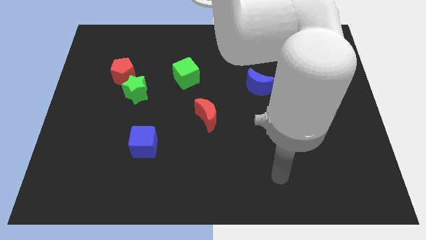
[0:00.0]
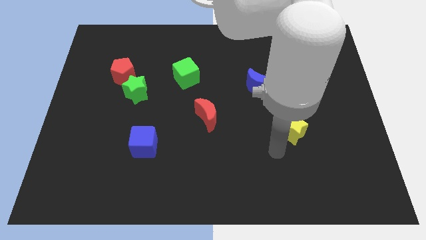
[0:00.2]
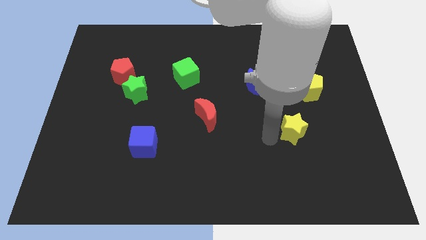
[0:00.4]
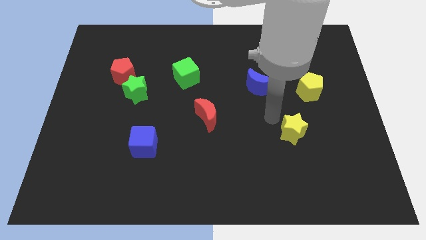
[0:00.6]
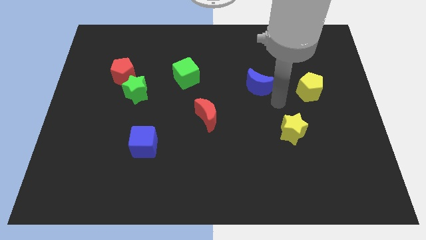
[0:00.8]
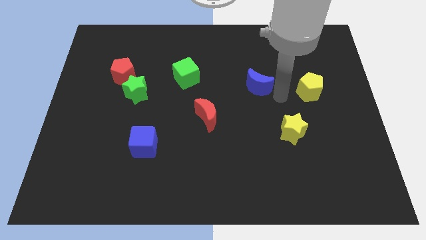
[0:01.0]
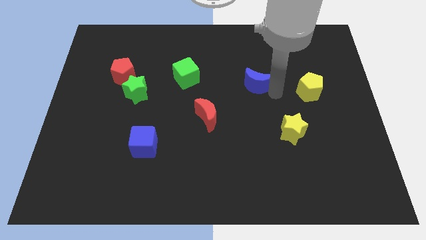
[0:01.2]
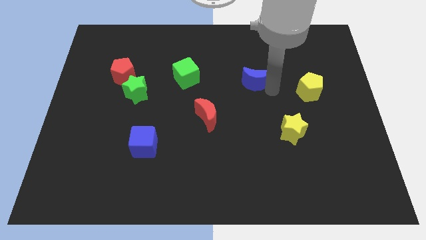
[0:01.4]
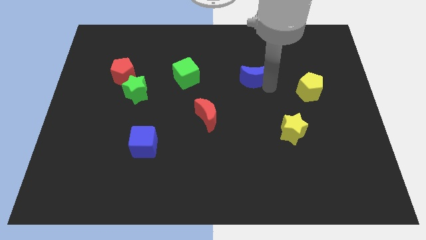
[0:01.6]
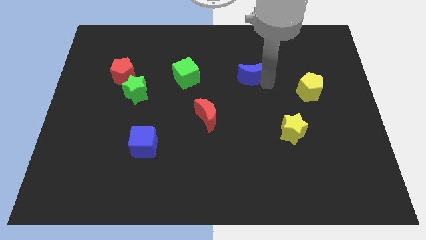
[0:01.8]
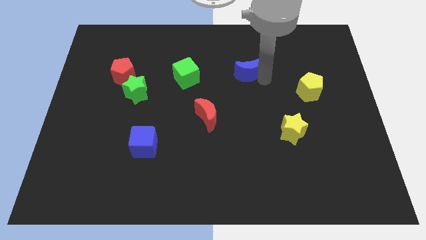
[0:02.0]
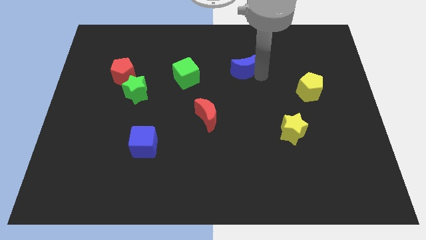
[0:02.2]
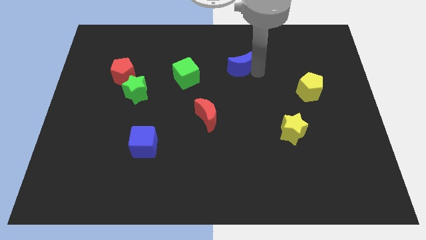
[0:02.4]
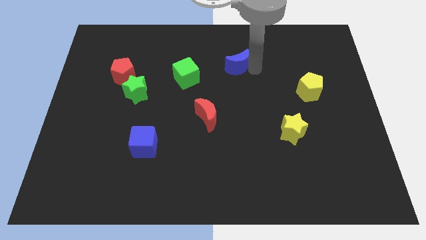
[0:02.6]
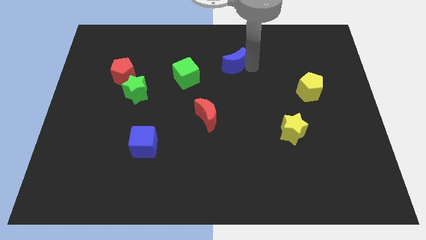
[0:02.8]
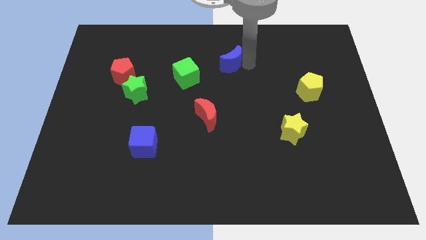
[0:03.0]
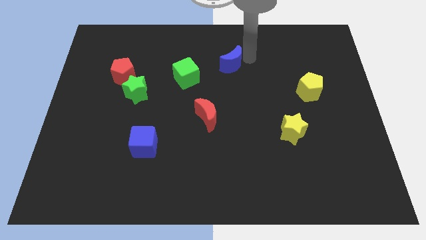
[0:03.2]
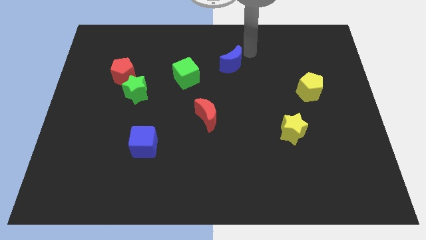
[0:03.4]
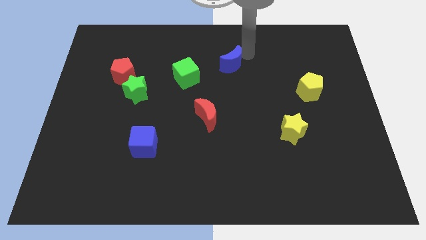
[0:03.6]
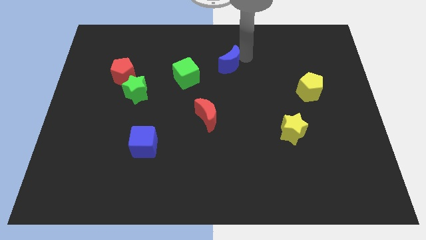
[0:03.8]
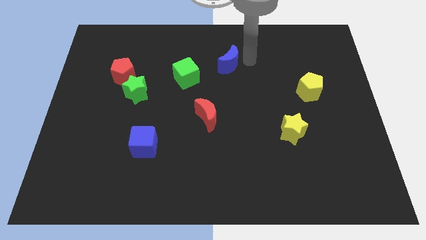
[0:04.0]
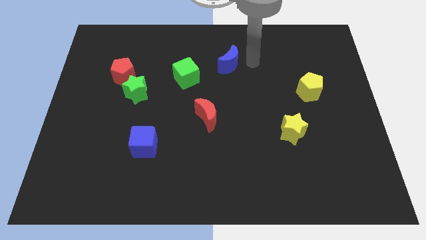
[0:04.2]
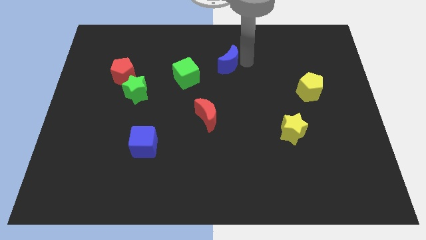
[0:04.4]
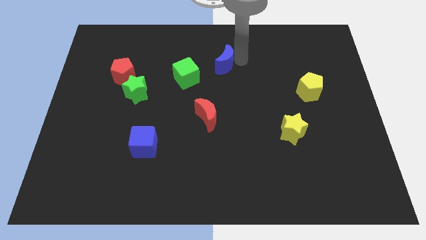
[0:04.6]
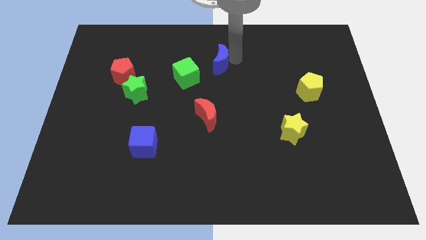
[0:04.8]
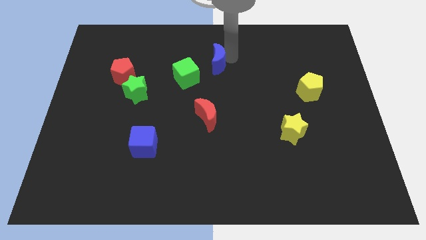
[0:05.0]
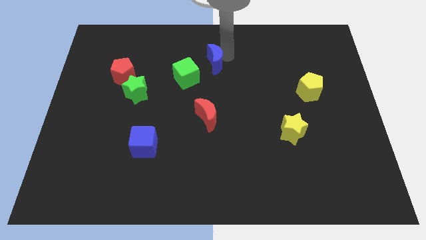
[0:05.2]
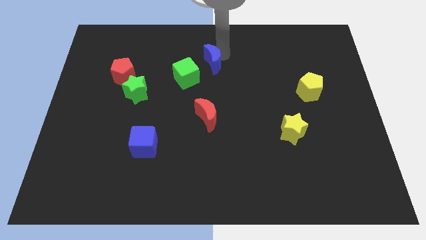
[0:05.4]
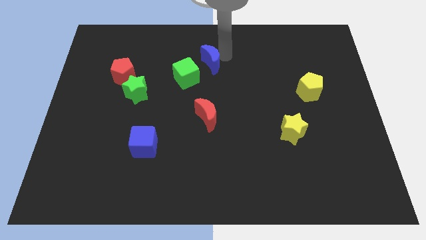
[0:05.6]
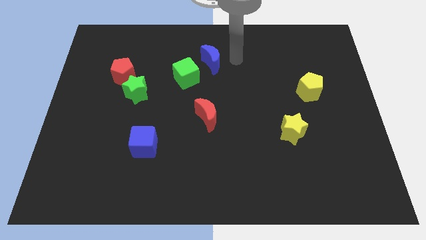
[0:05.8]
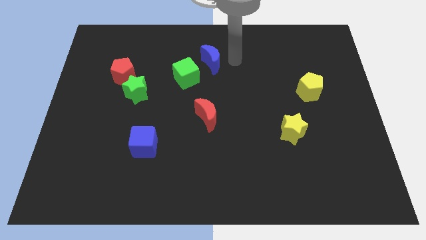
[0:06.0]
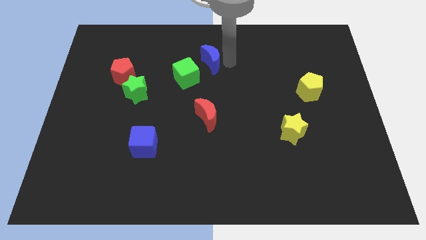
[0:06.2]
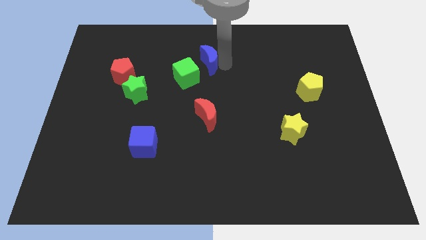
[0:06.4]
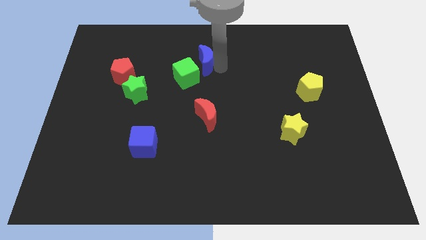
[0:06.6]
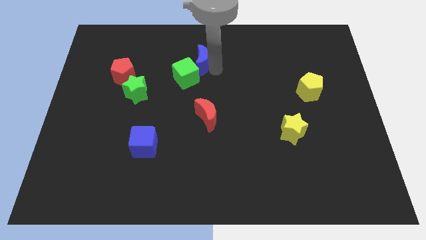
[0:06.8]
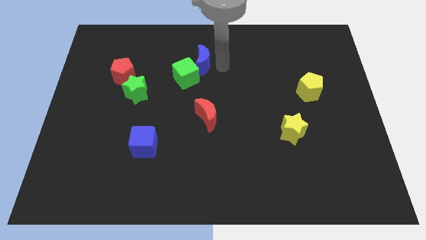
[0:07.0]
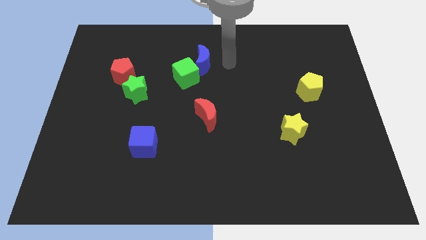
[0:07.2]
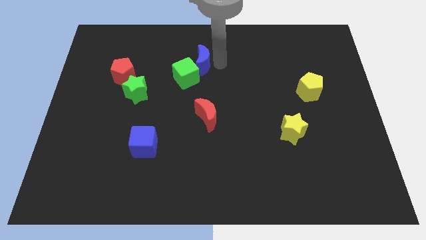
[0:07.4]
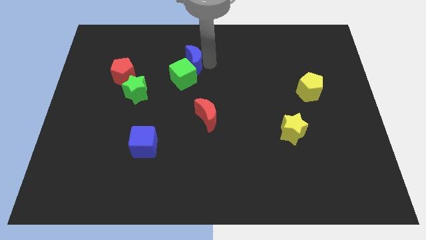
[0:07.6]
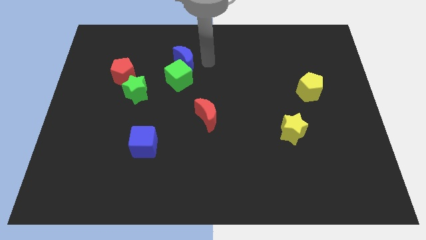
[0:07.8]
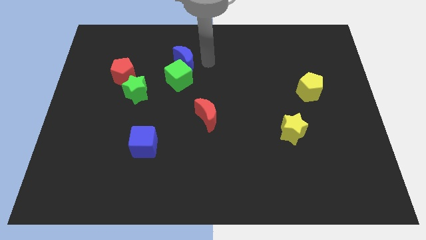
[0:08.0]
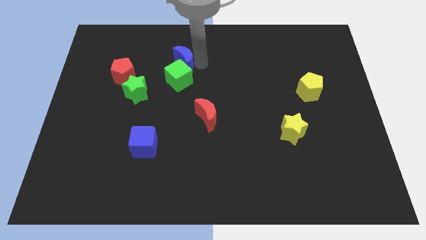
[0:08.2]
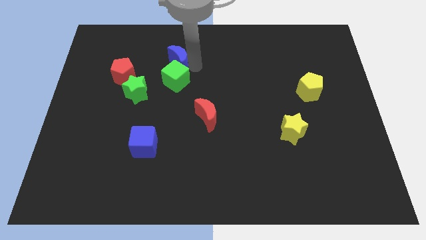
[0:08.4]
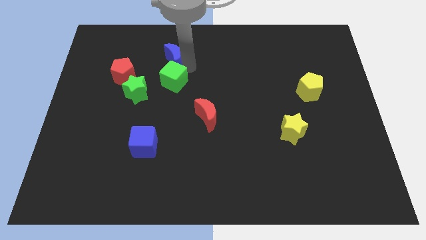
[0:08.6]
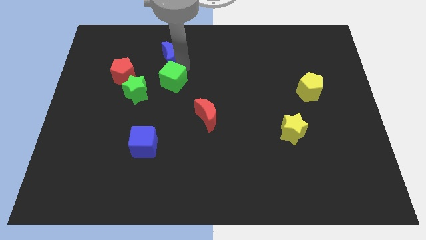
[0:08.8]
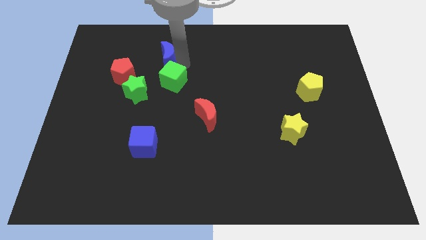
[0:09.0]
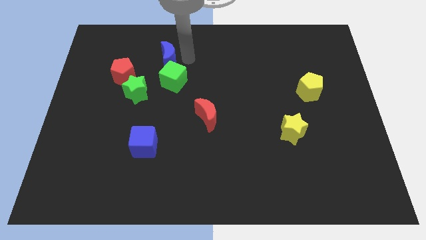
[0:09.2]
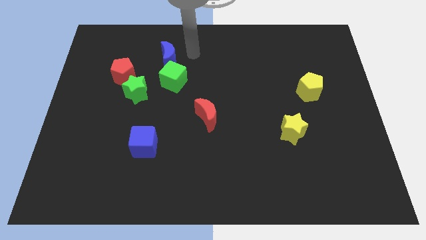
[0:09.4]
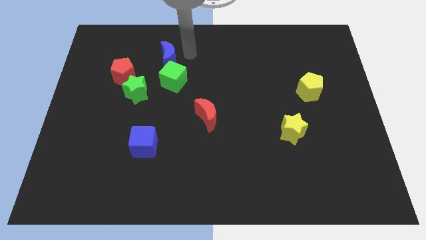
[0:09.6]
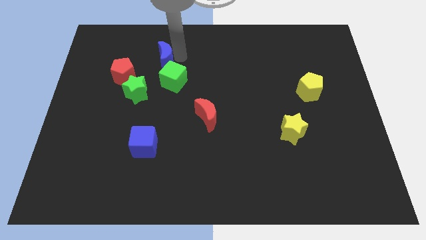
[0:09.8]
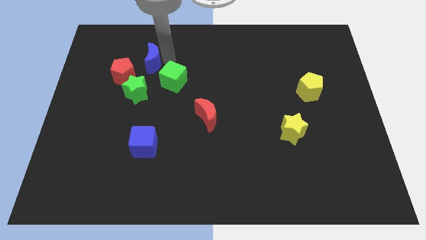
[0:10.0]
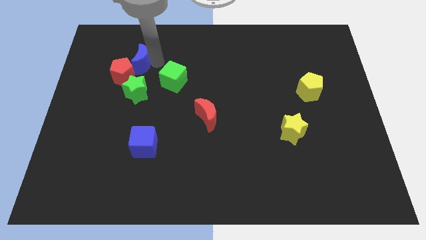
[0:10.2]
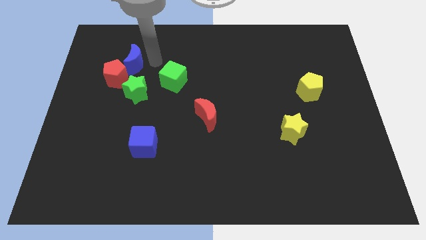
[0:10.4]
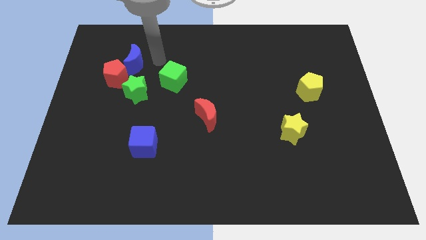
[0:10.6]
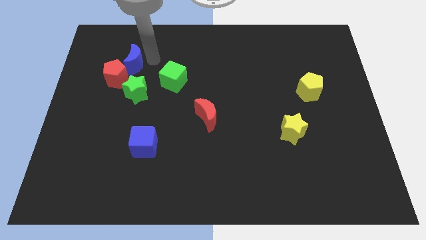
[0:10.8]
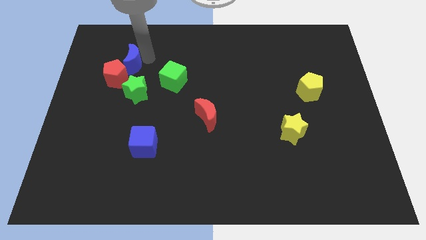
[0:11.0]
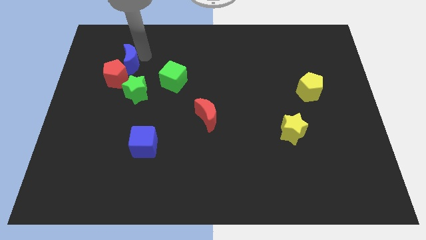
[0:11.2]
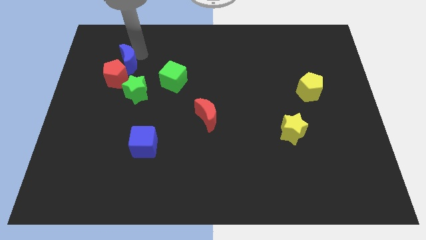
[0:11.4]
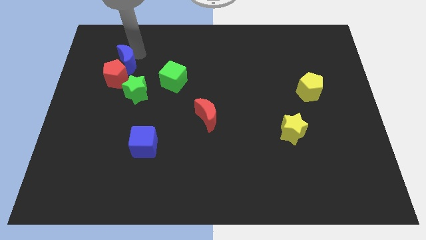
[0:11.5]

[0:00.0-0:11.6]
push the blue moon diagonally up and to the left of the green star

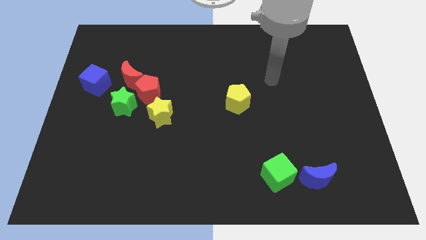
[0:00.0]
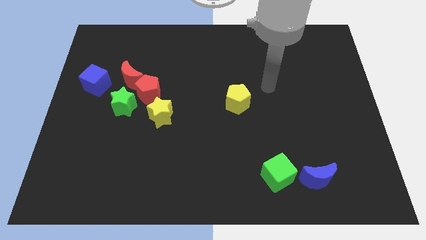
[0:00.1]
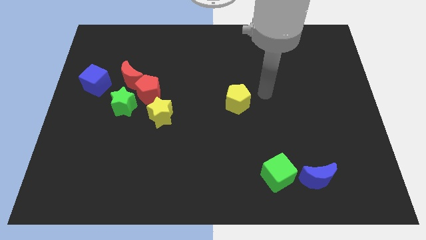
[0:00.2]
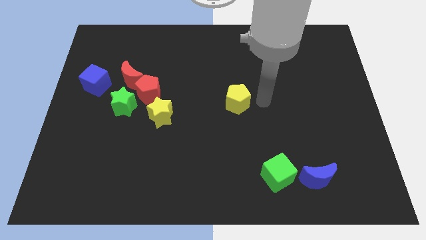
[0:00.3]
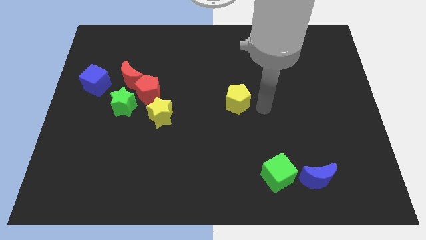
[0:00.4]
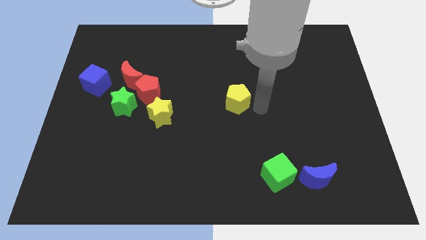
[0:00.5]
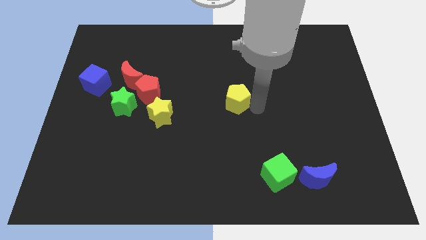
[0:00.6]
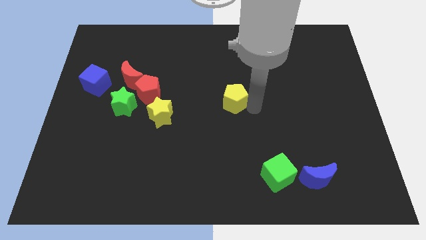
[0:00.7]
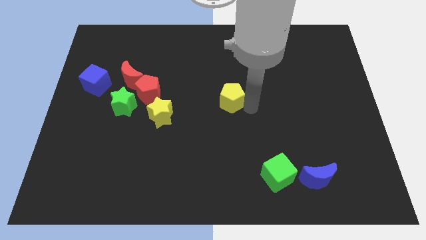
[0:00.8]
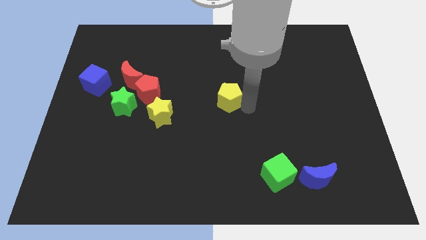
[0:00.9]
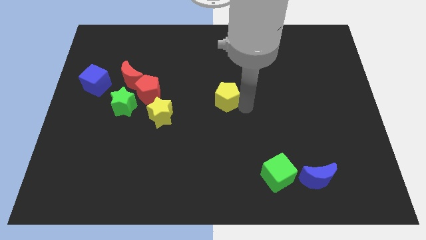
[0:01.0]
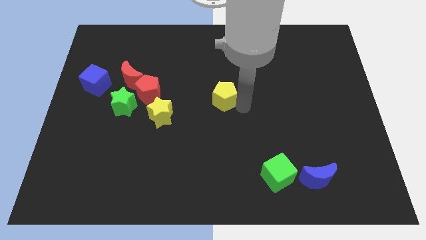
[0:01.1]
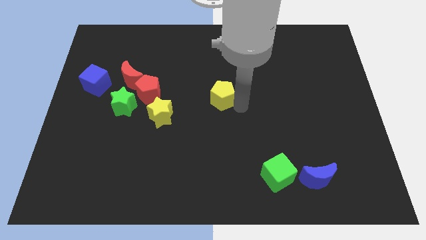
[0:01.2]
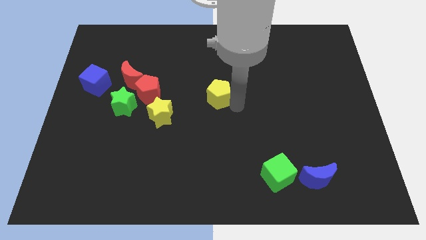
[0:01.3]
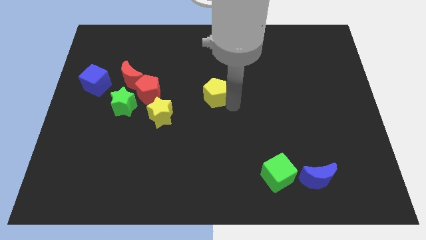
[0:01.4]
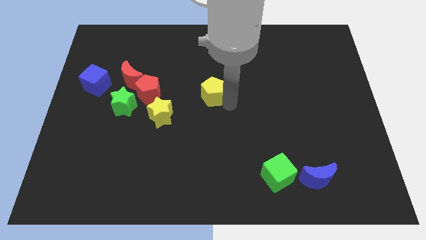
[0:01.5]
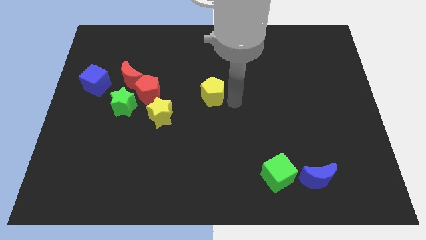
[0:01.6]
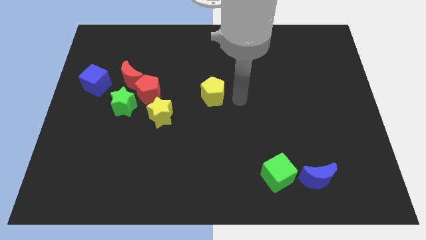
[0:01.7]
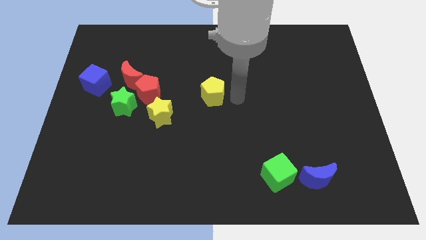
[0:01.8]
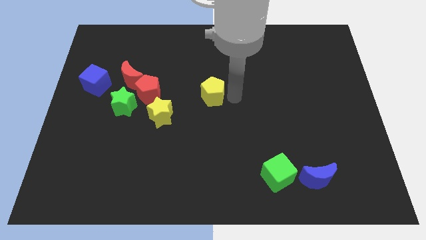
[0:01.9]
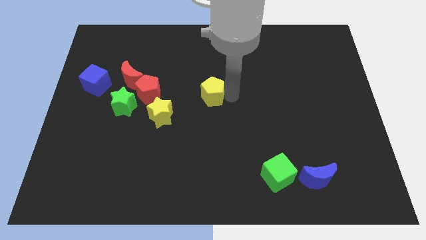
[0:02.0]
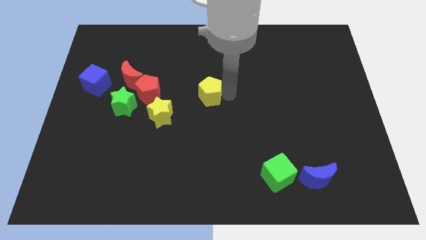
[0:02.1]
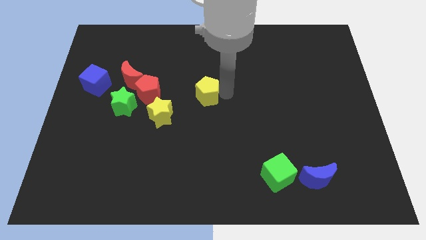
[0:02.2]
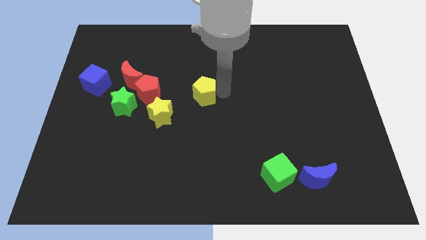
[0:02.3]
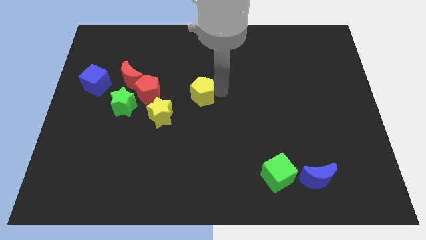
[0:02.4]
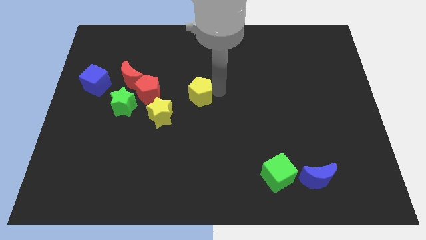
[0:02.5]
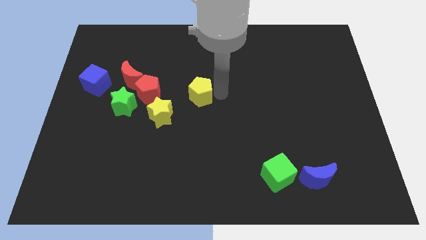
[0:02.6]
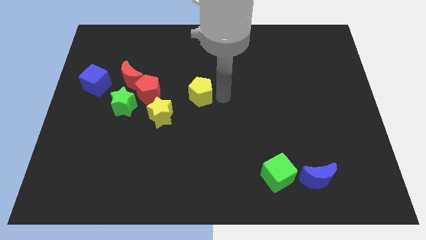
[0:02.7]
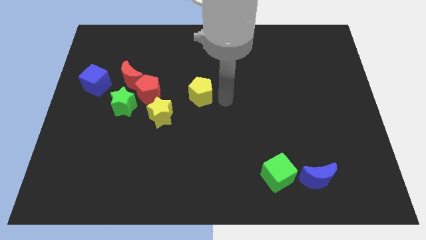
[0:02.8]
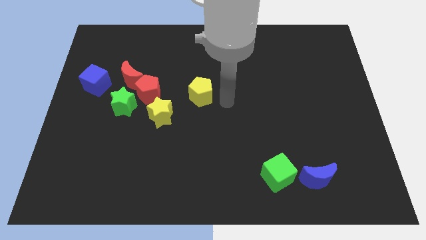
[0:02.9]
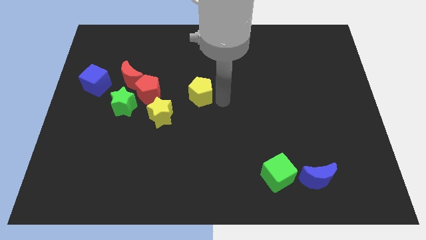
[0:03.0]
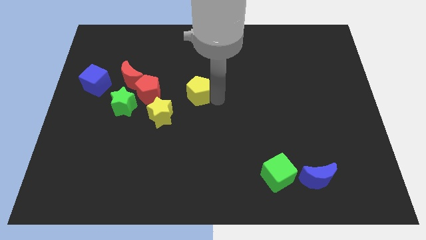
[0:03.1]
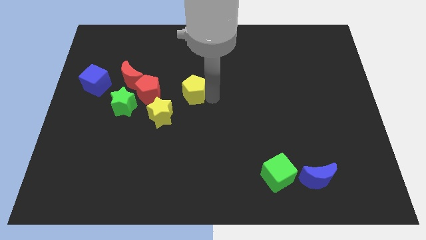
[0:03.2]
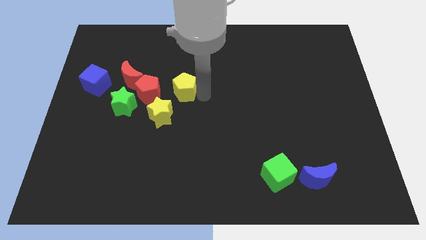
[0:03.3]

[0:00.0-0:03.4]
slide the yellow pentagon to the top side of the yellow star
